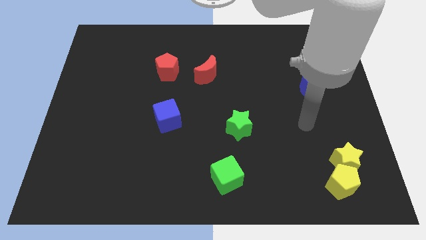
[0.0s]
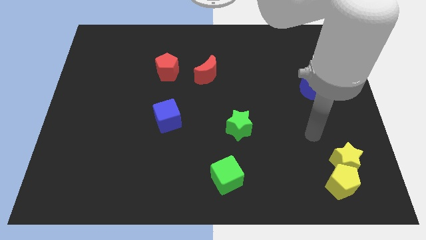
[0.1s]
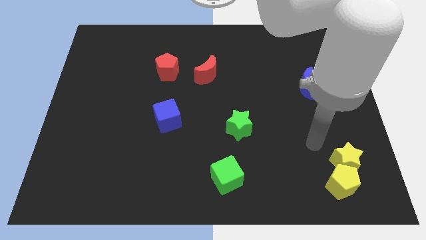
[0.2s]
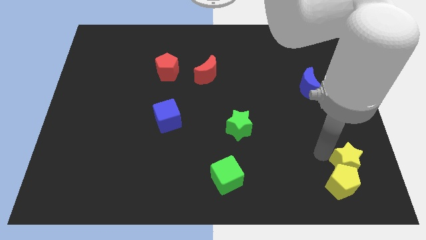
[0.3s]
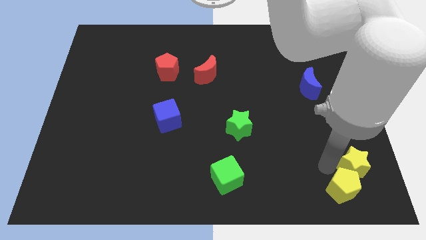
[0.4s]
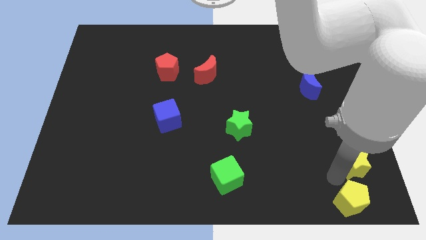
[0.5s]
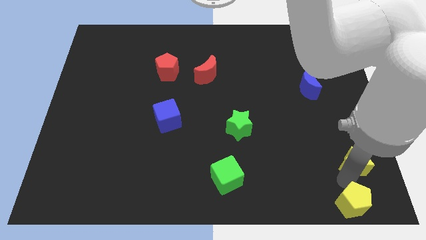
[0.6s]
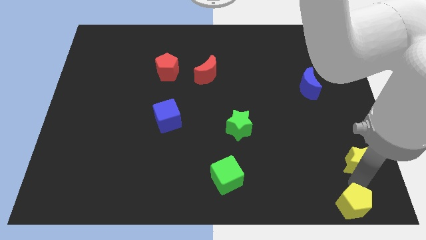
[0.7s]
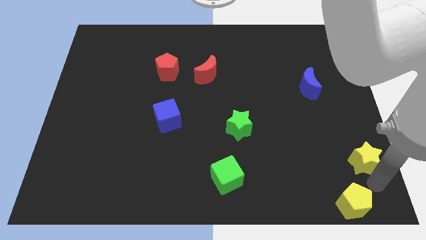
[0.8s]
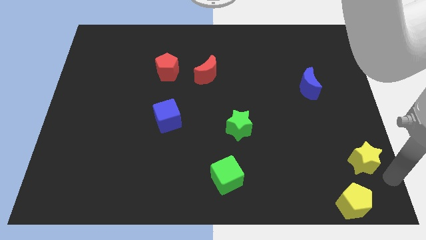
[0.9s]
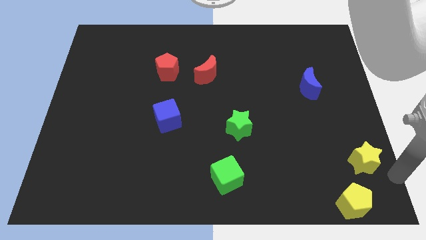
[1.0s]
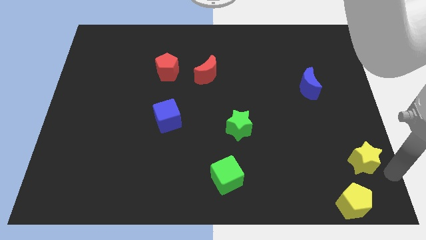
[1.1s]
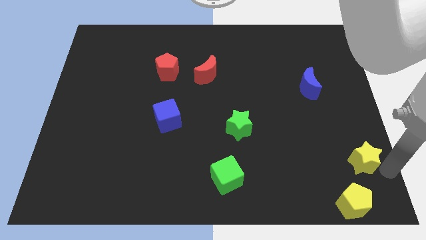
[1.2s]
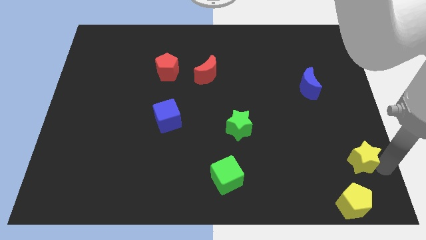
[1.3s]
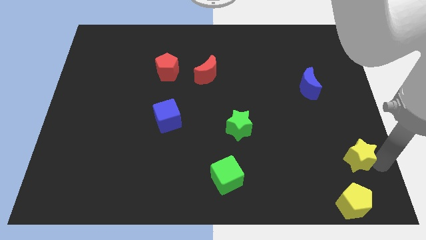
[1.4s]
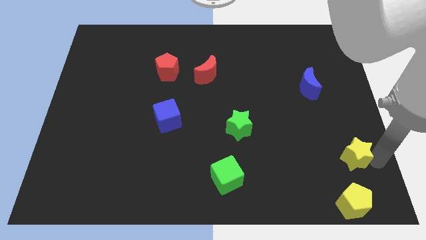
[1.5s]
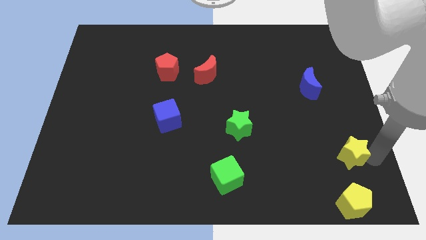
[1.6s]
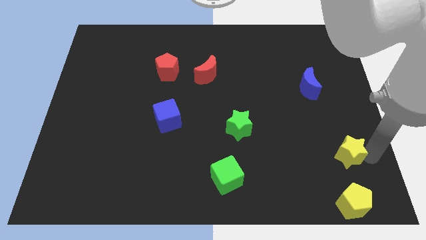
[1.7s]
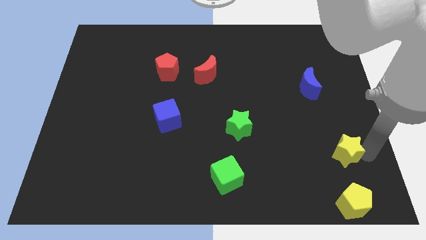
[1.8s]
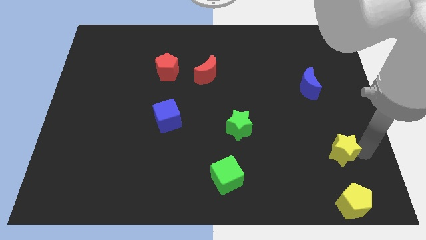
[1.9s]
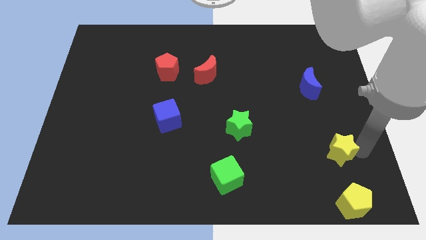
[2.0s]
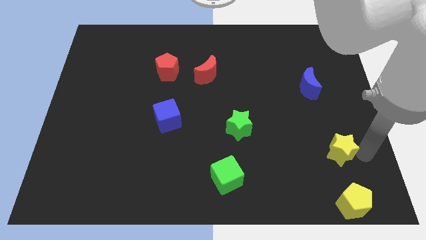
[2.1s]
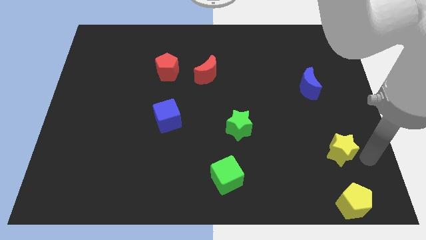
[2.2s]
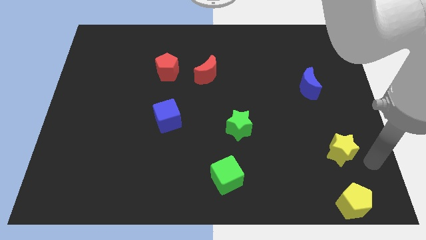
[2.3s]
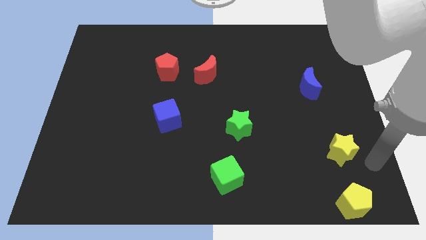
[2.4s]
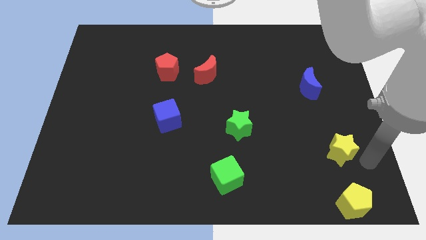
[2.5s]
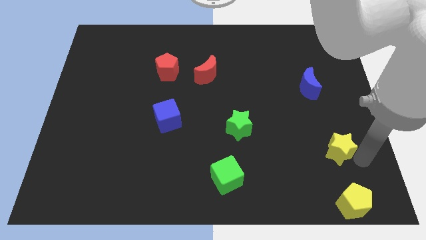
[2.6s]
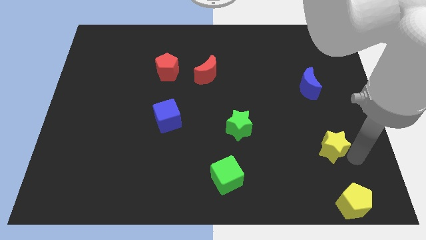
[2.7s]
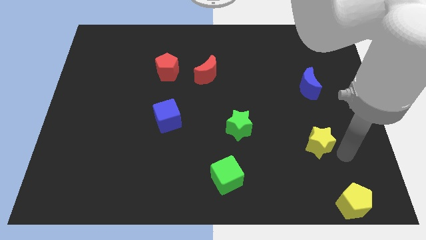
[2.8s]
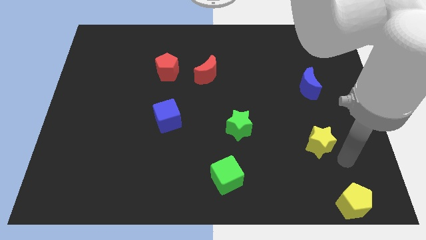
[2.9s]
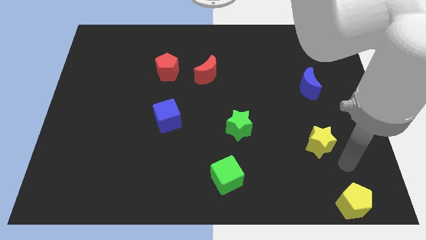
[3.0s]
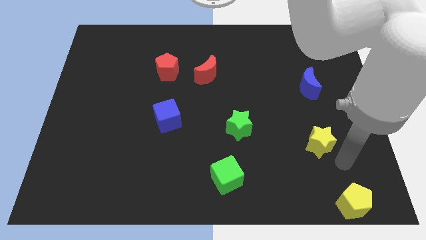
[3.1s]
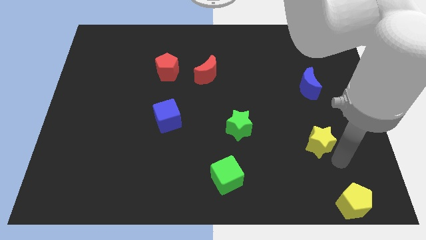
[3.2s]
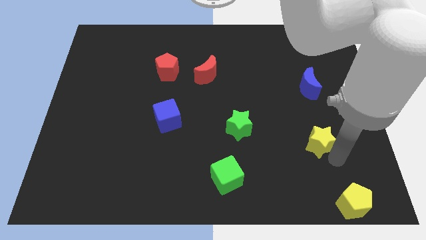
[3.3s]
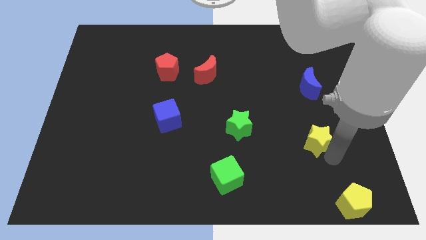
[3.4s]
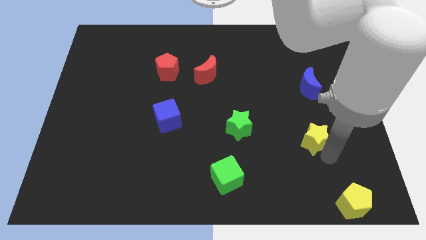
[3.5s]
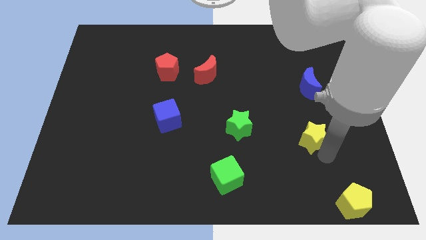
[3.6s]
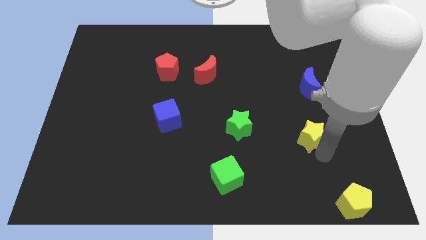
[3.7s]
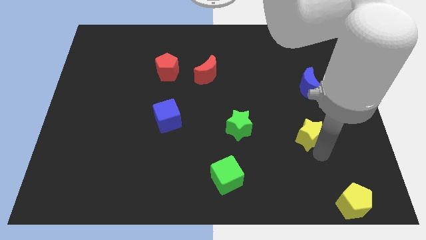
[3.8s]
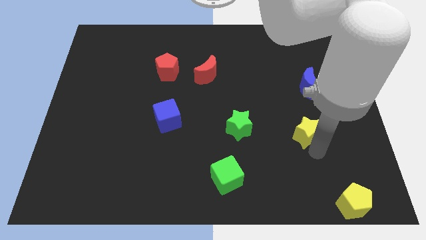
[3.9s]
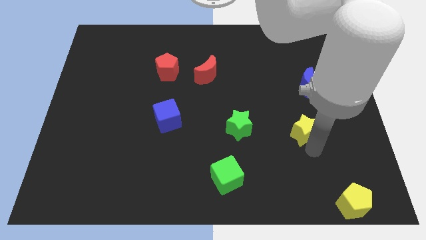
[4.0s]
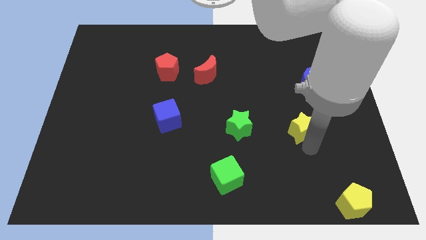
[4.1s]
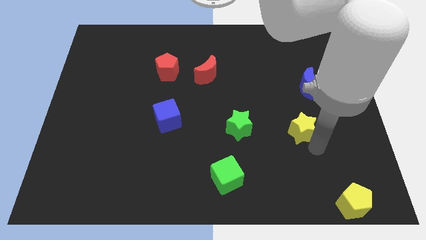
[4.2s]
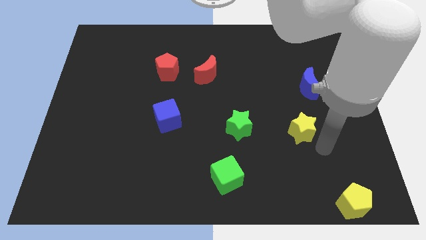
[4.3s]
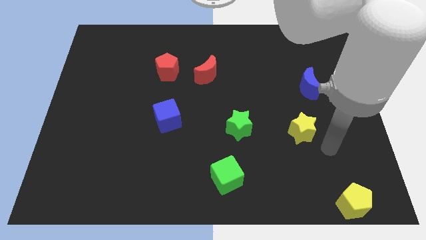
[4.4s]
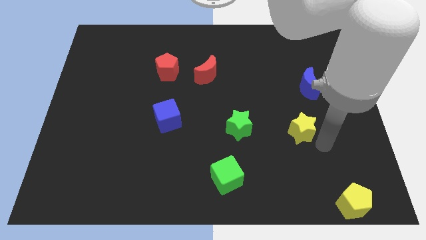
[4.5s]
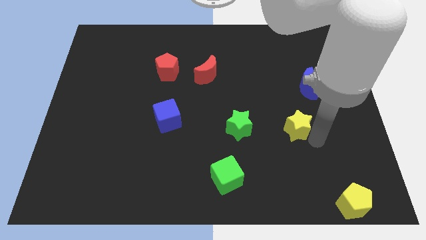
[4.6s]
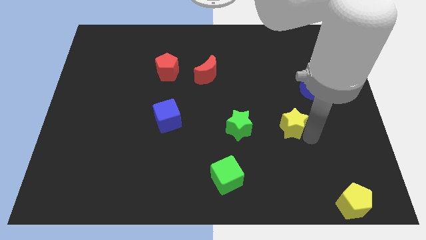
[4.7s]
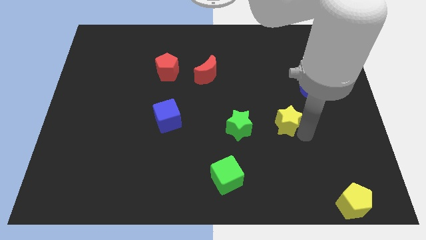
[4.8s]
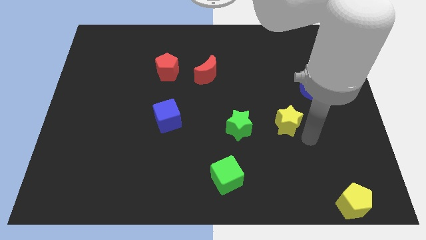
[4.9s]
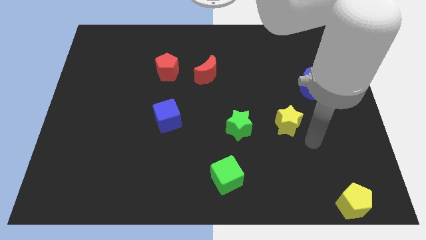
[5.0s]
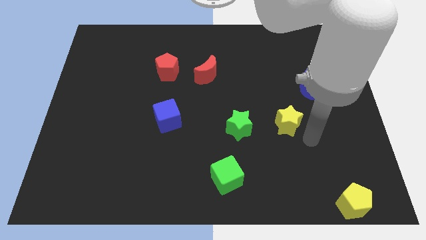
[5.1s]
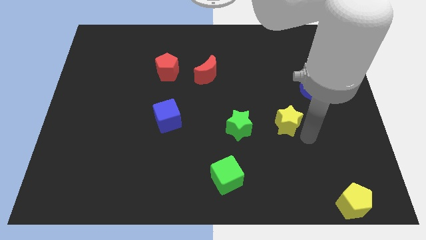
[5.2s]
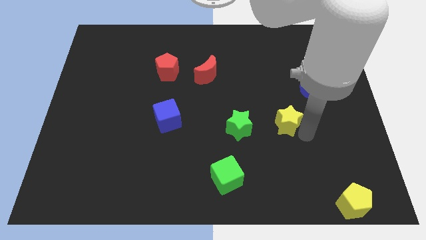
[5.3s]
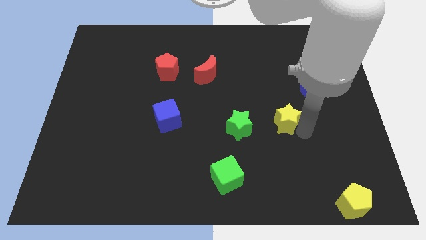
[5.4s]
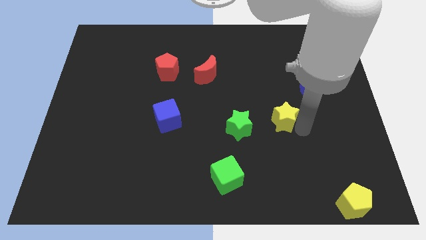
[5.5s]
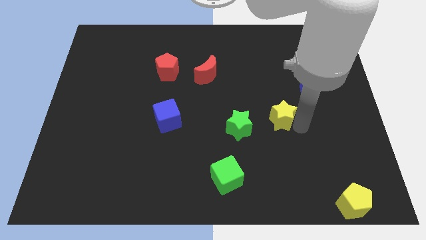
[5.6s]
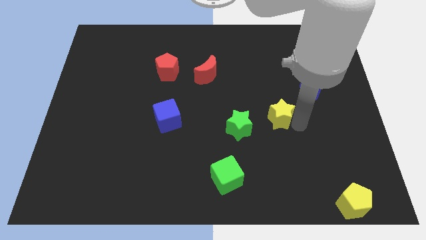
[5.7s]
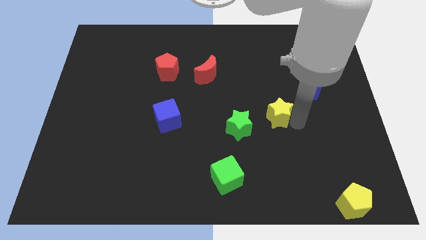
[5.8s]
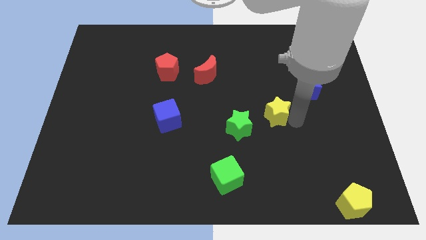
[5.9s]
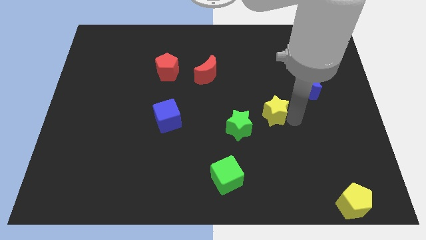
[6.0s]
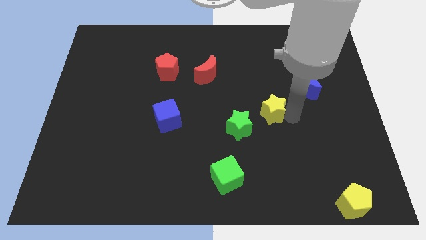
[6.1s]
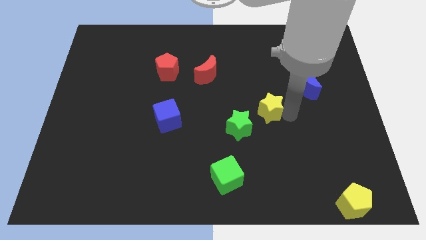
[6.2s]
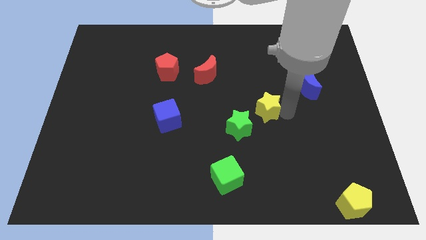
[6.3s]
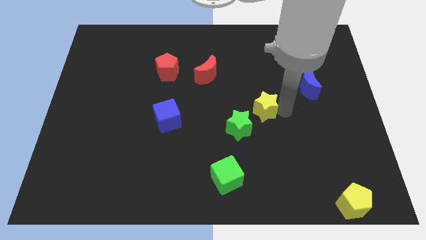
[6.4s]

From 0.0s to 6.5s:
move the yellow star to the middle of the board
